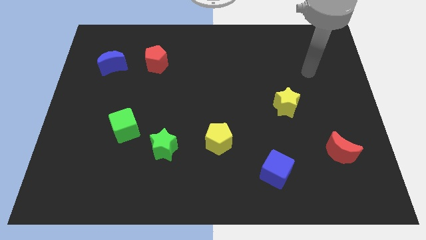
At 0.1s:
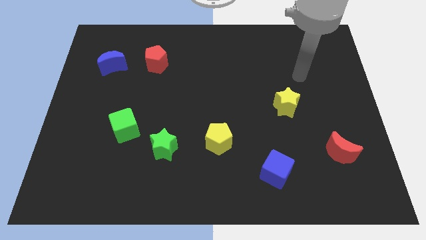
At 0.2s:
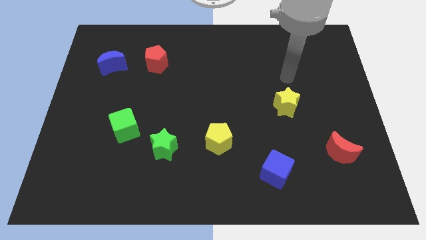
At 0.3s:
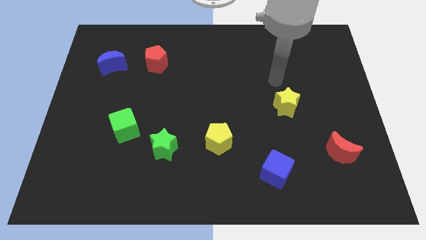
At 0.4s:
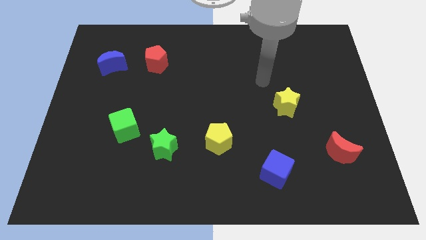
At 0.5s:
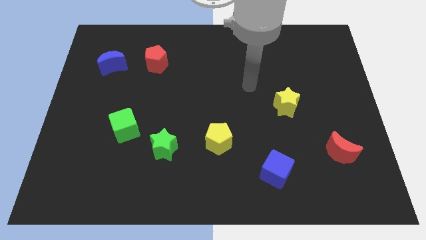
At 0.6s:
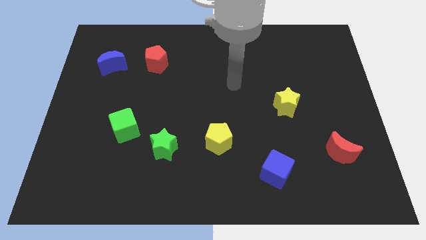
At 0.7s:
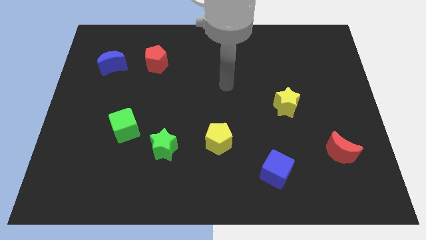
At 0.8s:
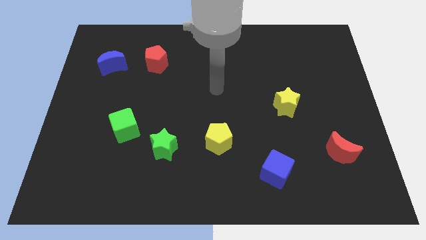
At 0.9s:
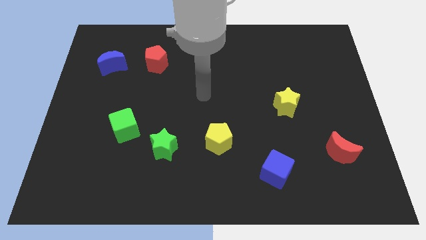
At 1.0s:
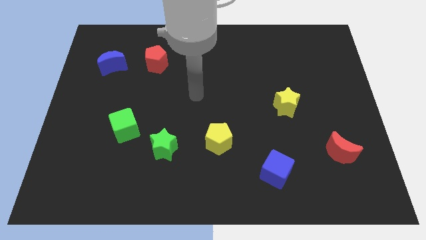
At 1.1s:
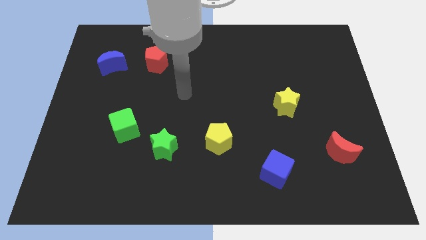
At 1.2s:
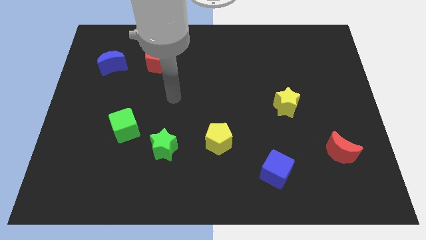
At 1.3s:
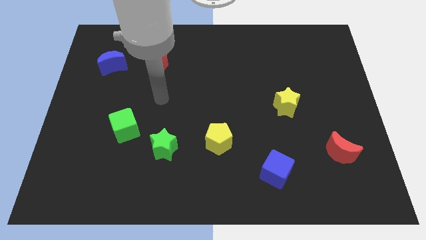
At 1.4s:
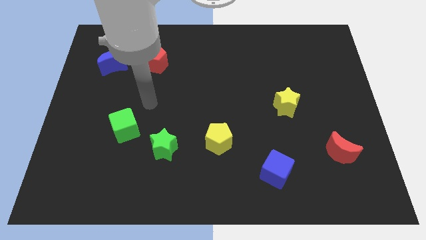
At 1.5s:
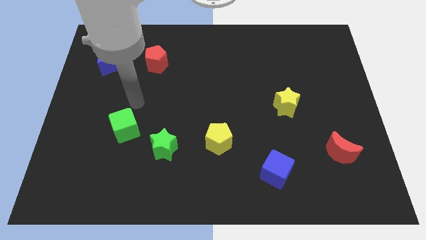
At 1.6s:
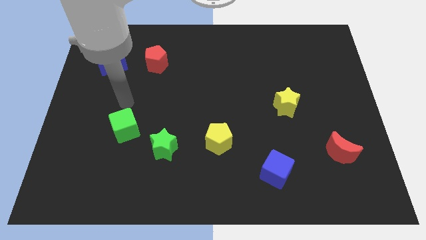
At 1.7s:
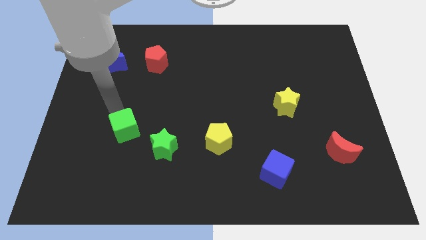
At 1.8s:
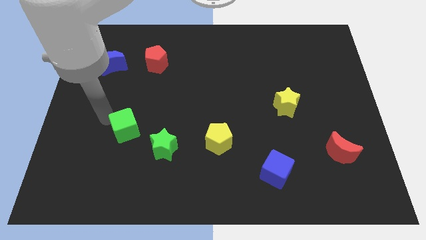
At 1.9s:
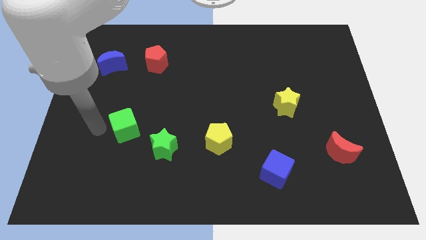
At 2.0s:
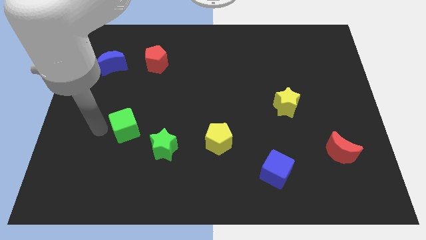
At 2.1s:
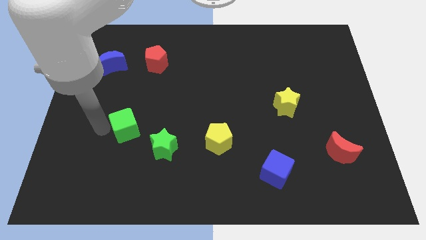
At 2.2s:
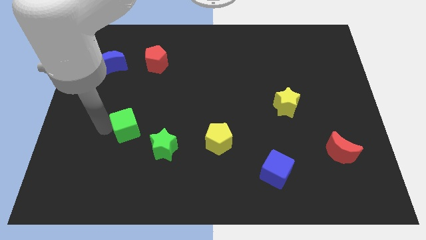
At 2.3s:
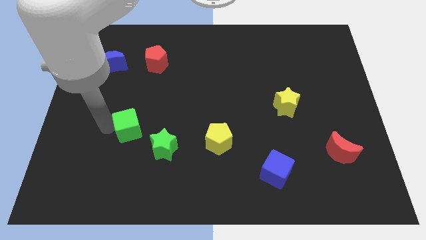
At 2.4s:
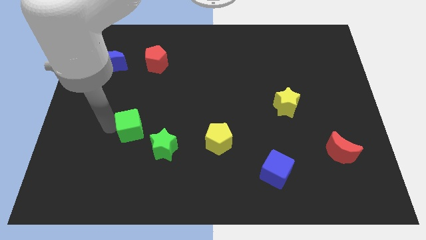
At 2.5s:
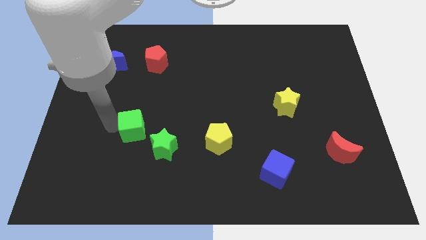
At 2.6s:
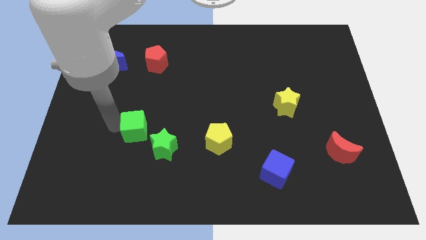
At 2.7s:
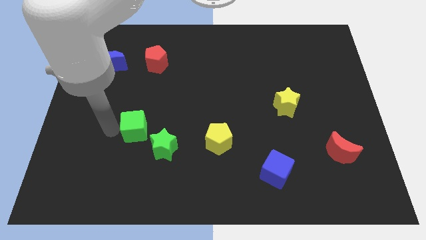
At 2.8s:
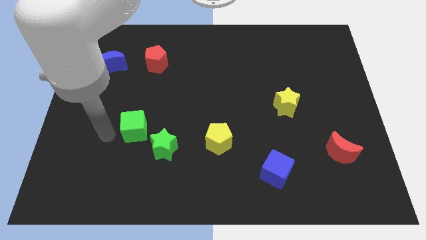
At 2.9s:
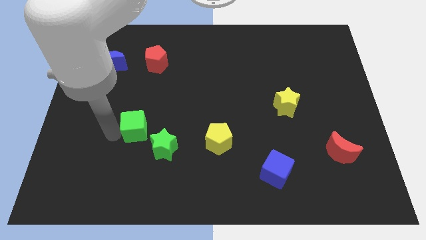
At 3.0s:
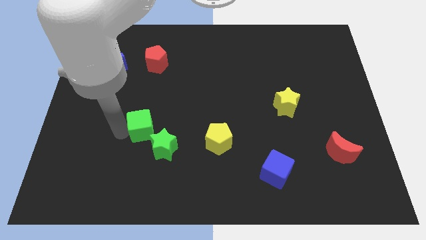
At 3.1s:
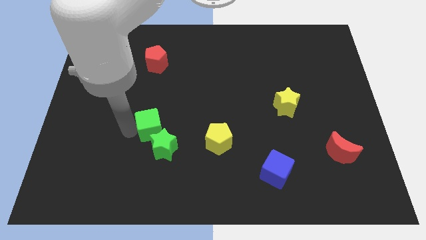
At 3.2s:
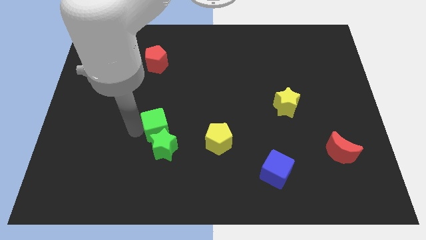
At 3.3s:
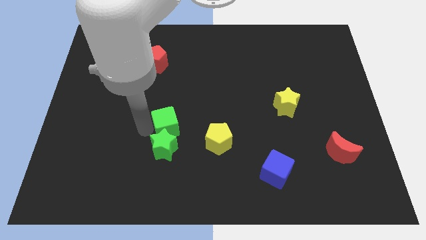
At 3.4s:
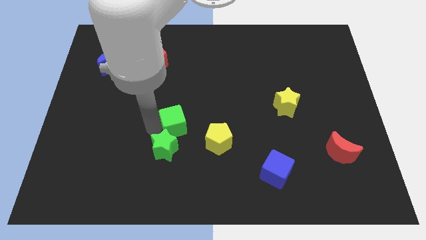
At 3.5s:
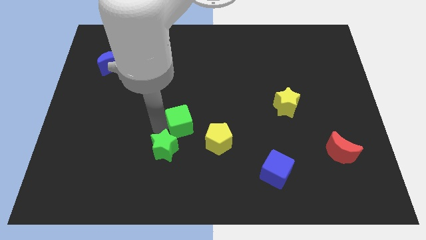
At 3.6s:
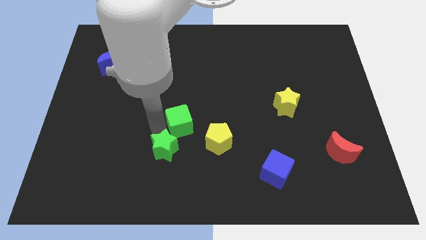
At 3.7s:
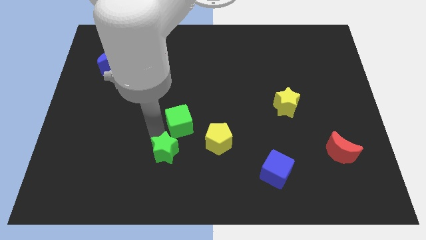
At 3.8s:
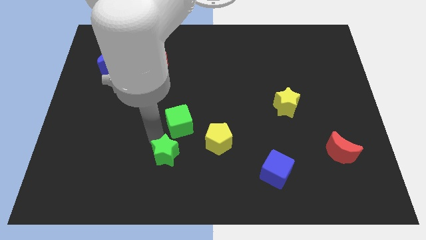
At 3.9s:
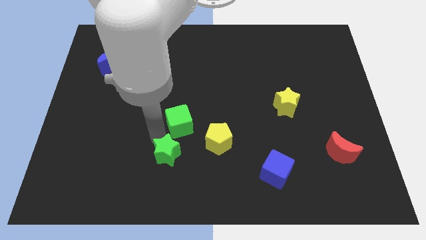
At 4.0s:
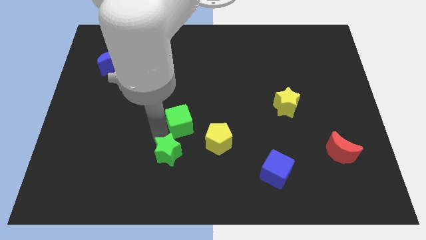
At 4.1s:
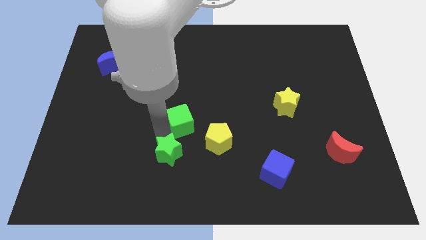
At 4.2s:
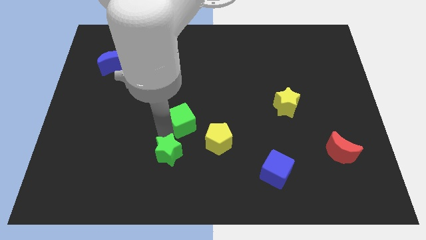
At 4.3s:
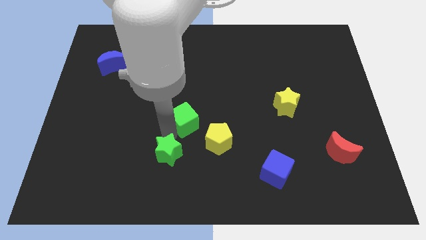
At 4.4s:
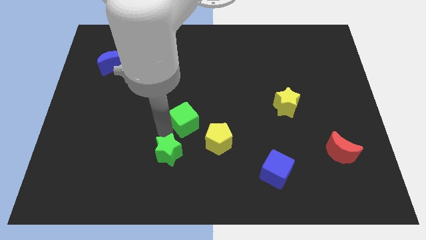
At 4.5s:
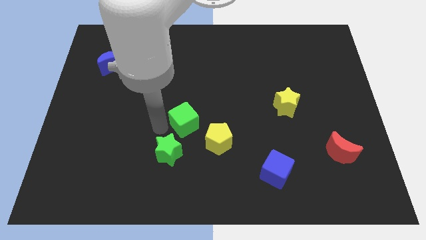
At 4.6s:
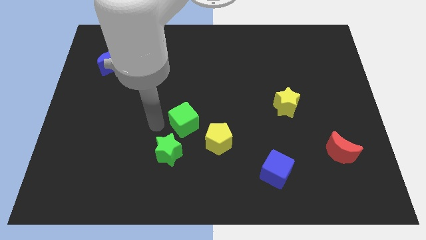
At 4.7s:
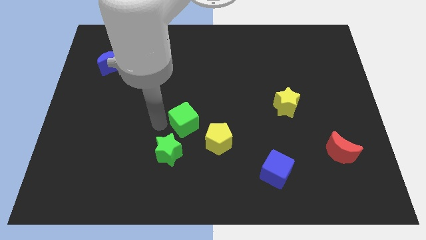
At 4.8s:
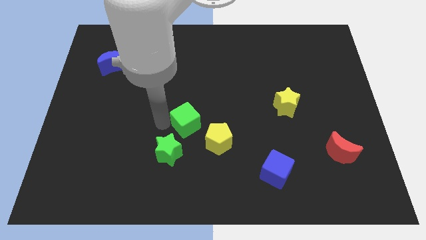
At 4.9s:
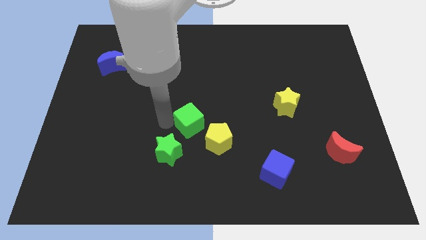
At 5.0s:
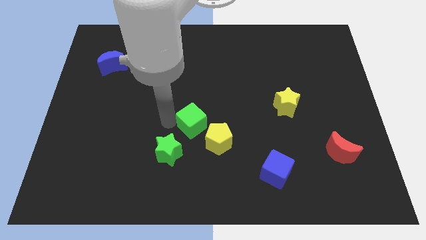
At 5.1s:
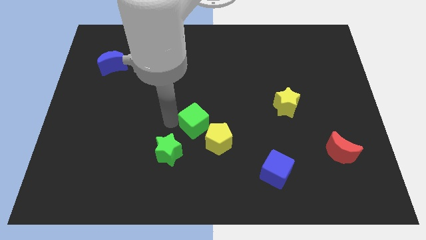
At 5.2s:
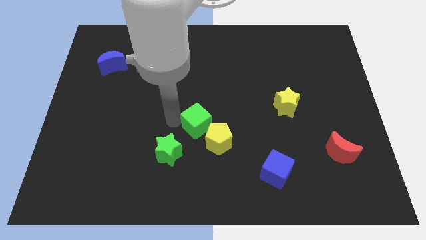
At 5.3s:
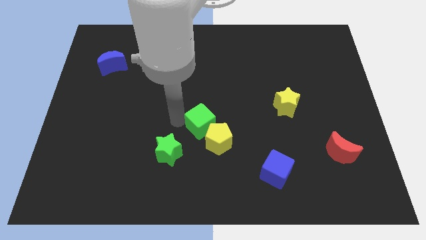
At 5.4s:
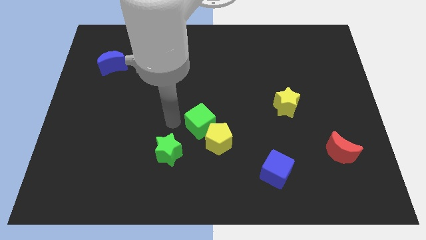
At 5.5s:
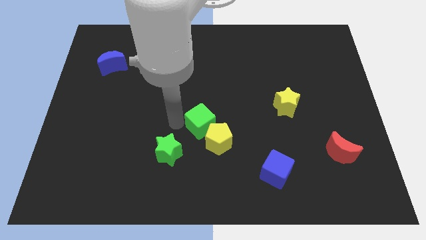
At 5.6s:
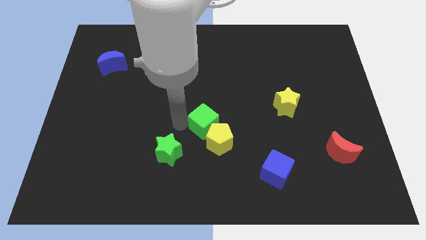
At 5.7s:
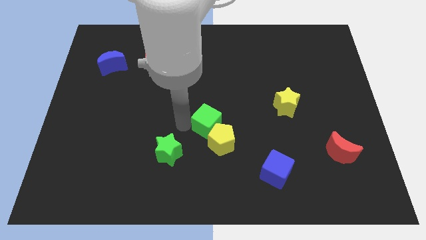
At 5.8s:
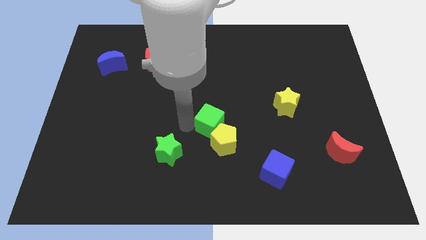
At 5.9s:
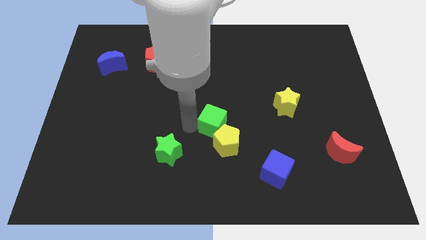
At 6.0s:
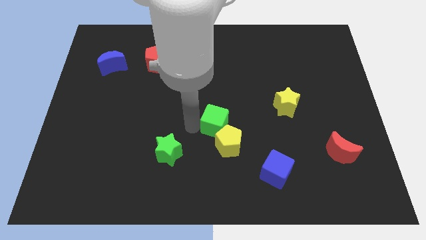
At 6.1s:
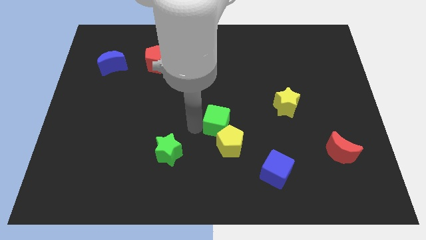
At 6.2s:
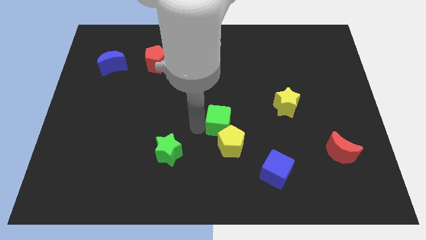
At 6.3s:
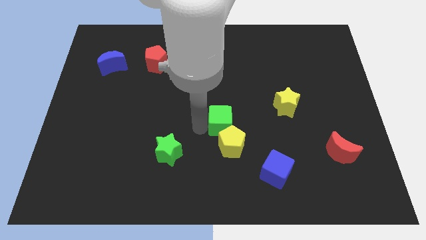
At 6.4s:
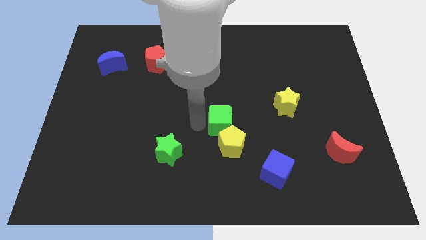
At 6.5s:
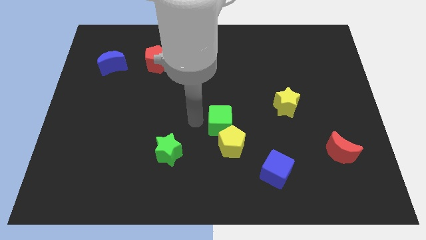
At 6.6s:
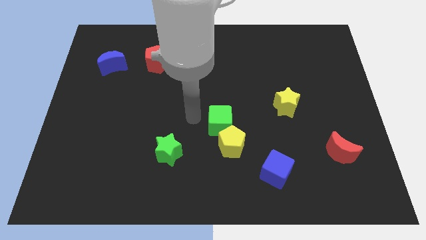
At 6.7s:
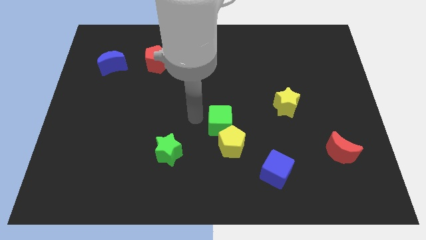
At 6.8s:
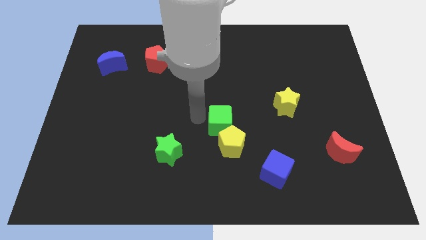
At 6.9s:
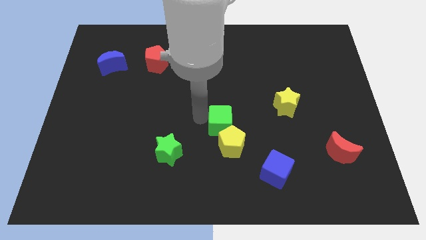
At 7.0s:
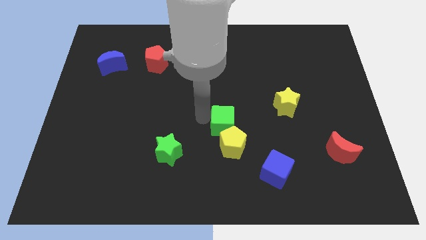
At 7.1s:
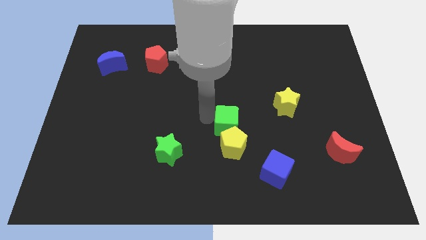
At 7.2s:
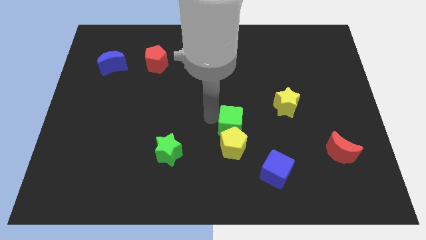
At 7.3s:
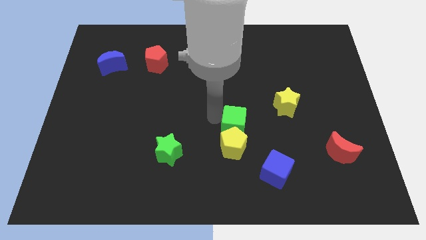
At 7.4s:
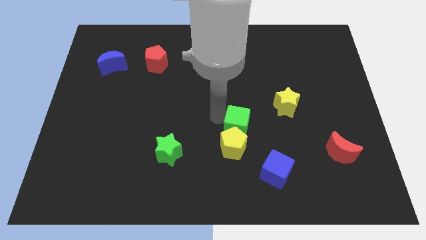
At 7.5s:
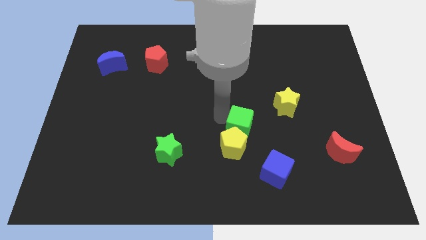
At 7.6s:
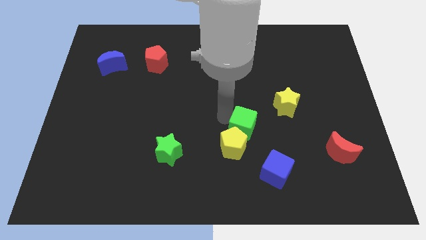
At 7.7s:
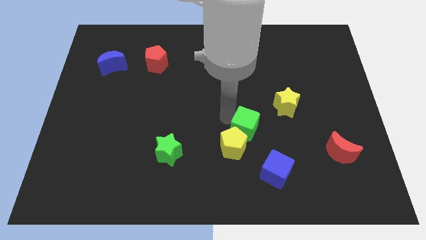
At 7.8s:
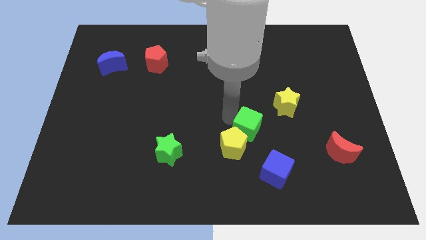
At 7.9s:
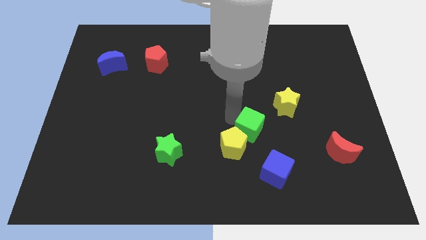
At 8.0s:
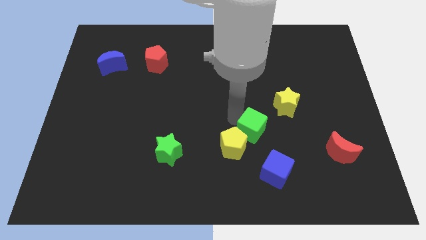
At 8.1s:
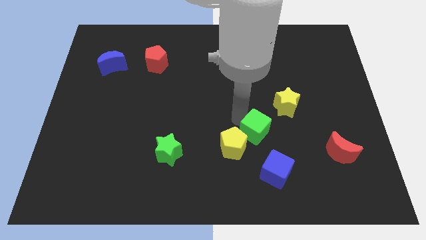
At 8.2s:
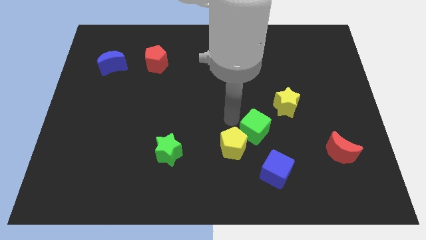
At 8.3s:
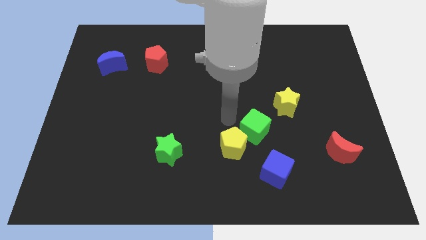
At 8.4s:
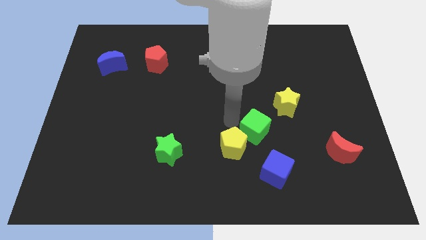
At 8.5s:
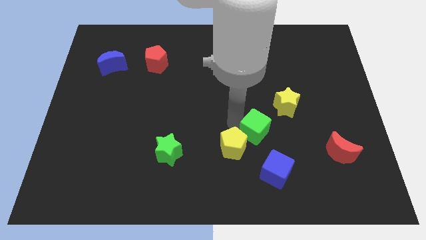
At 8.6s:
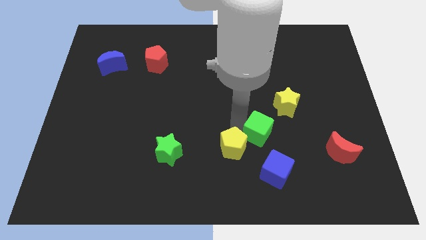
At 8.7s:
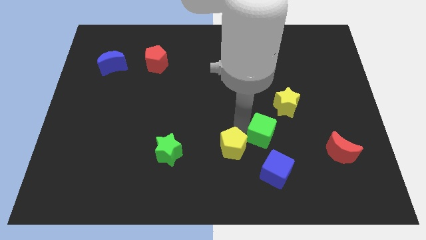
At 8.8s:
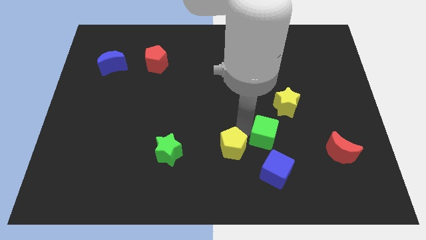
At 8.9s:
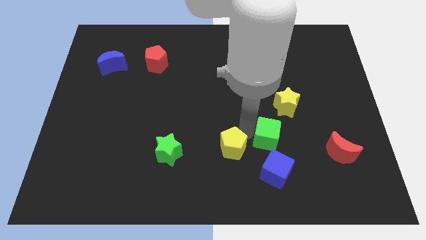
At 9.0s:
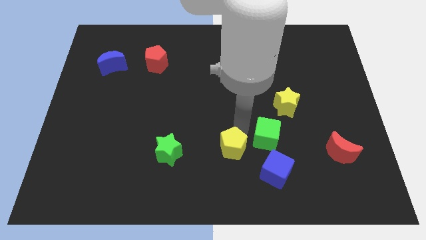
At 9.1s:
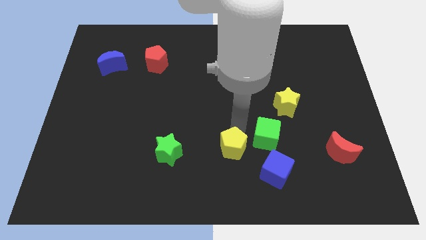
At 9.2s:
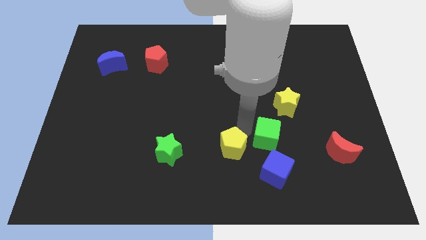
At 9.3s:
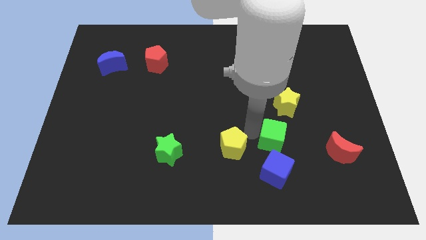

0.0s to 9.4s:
push the green cube below the yellow star
